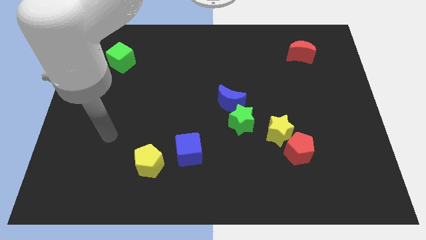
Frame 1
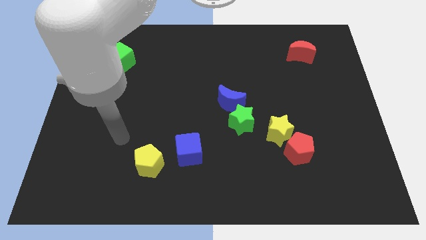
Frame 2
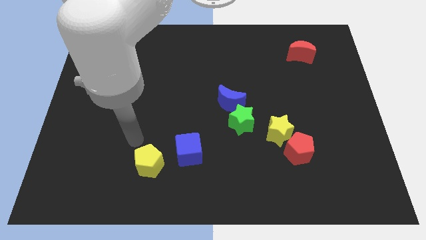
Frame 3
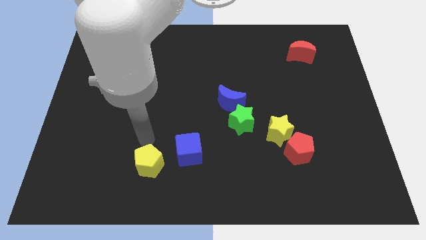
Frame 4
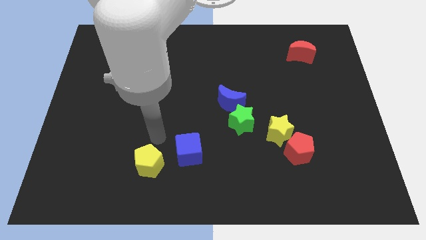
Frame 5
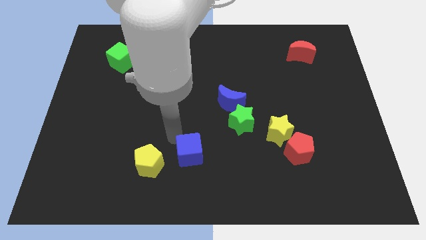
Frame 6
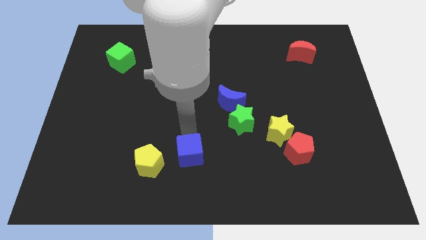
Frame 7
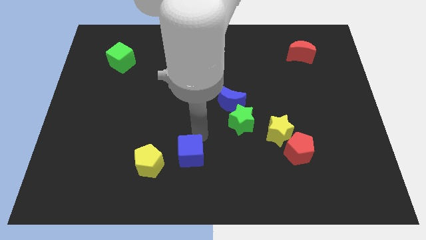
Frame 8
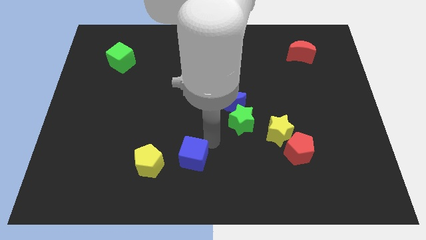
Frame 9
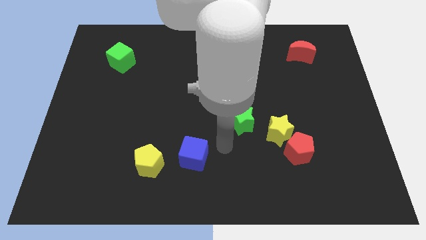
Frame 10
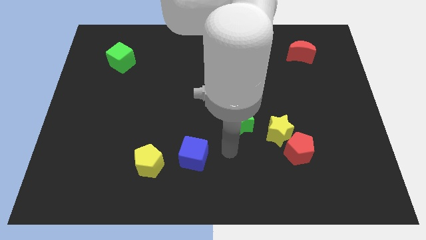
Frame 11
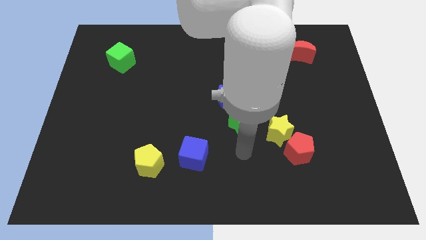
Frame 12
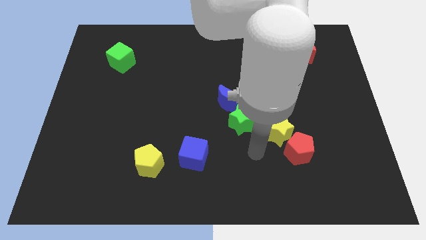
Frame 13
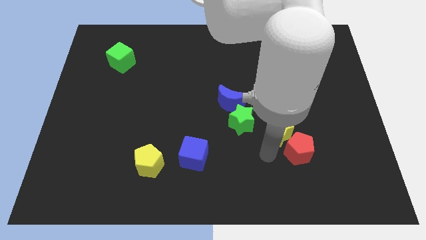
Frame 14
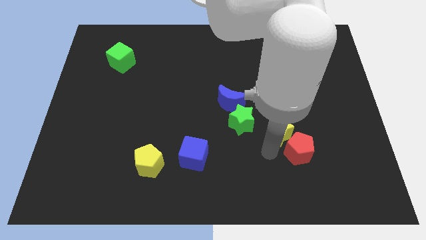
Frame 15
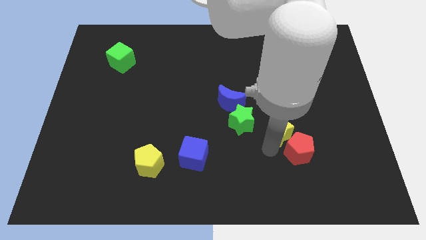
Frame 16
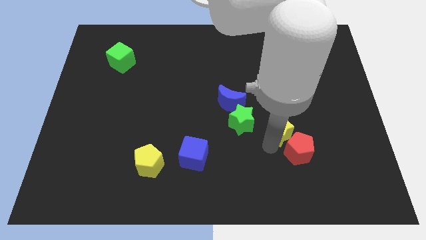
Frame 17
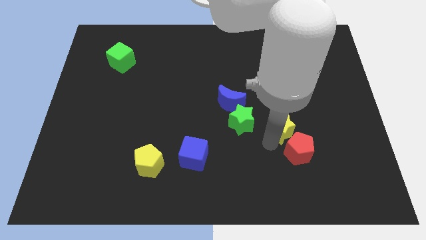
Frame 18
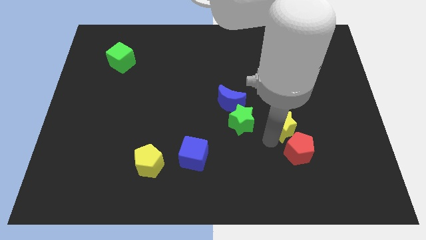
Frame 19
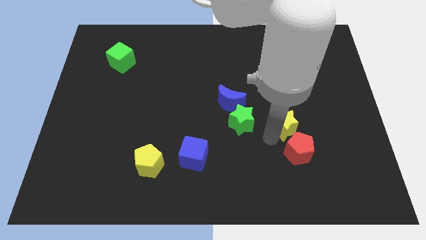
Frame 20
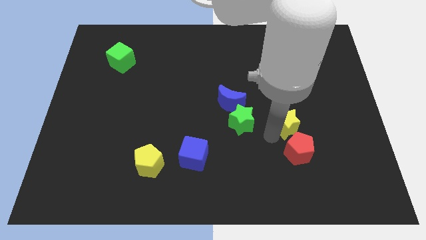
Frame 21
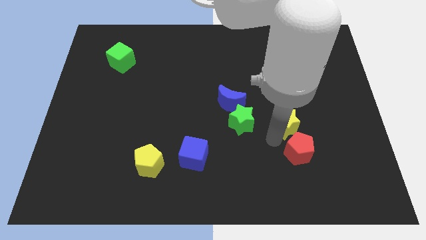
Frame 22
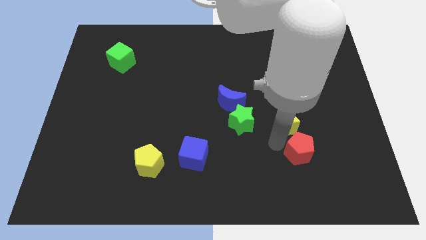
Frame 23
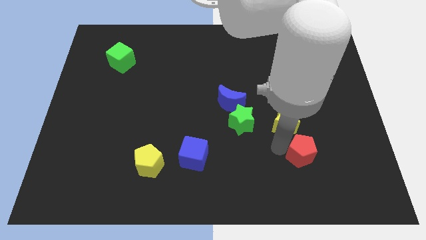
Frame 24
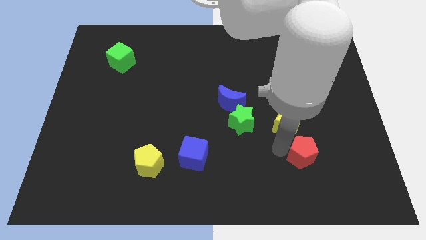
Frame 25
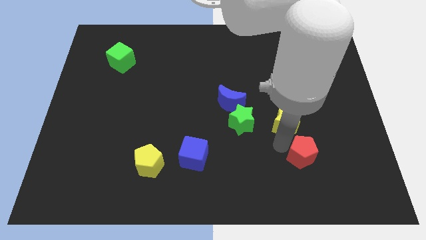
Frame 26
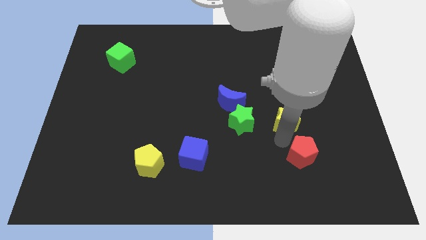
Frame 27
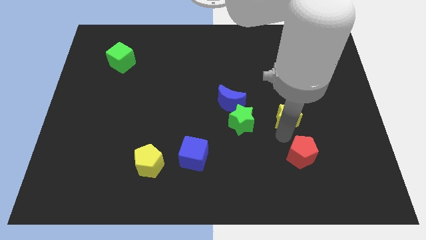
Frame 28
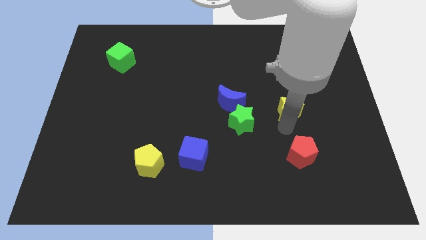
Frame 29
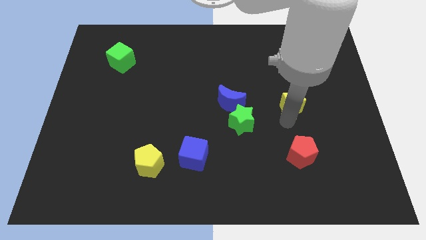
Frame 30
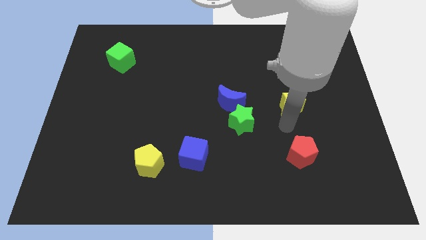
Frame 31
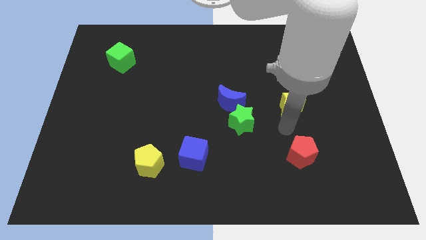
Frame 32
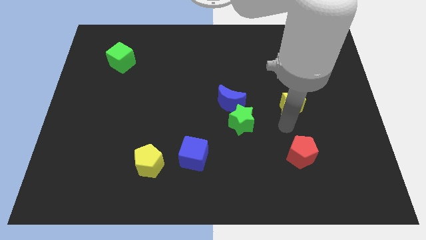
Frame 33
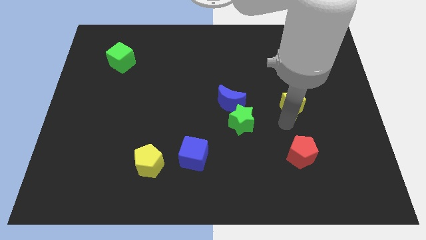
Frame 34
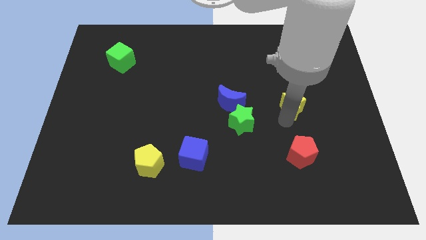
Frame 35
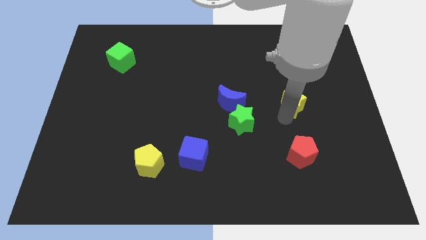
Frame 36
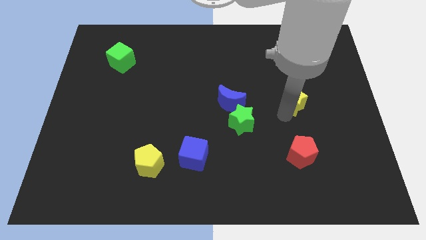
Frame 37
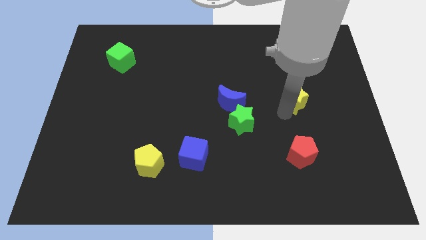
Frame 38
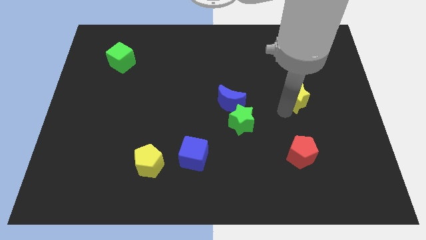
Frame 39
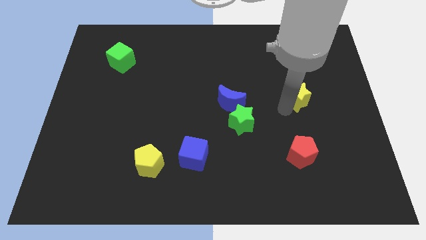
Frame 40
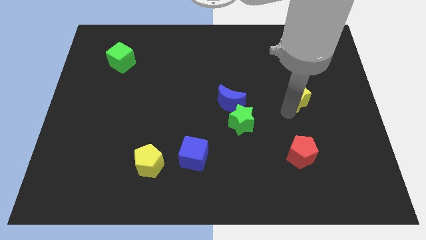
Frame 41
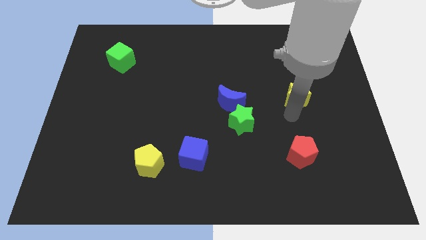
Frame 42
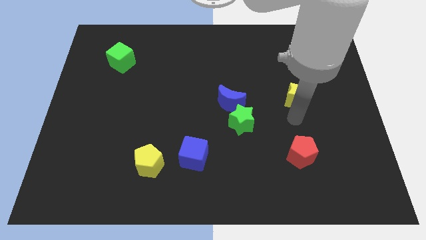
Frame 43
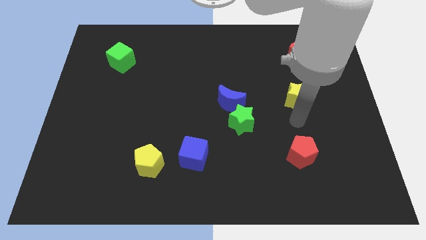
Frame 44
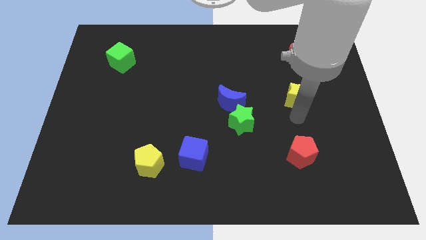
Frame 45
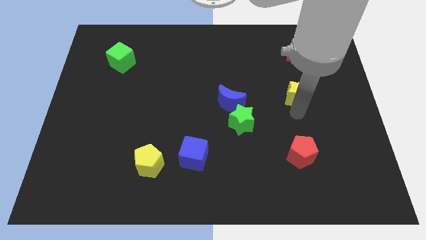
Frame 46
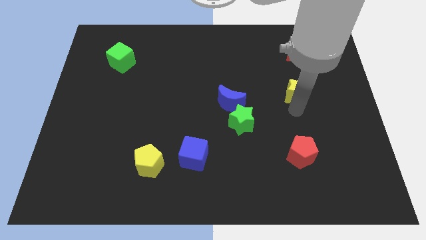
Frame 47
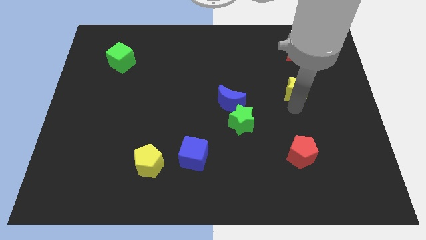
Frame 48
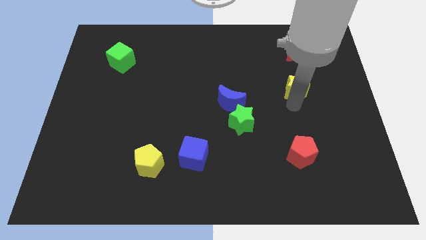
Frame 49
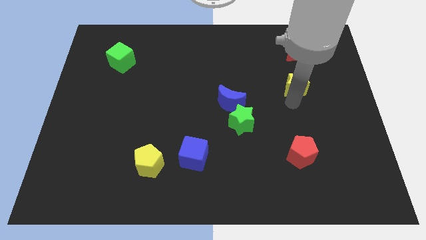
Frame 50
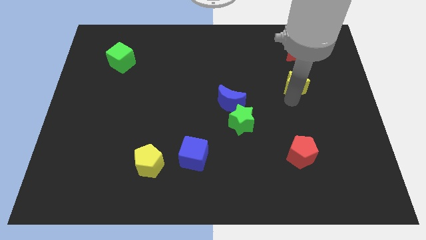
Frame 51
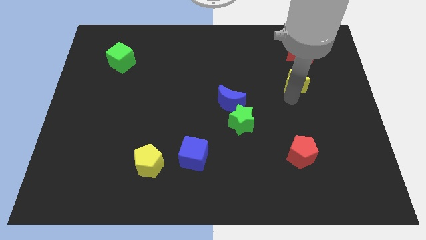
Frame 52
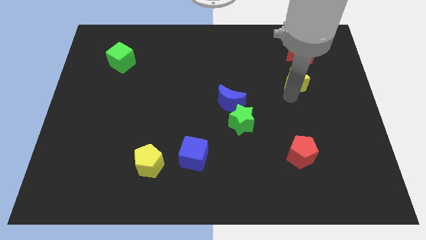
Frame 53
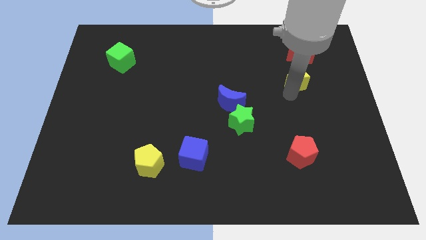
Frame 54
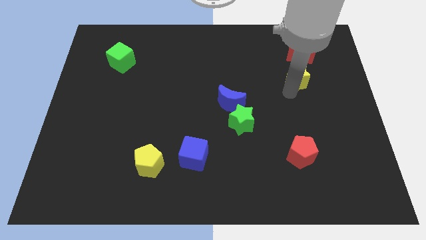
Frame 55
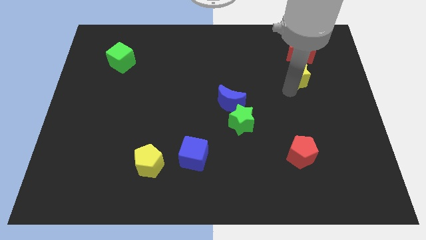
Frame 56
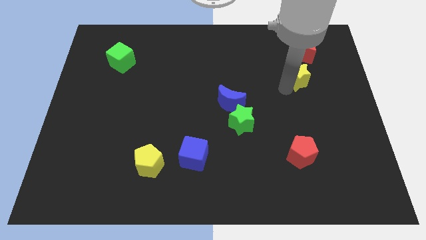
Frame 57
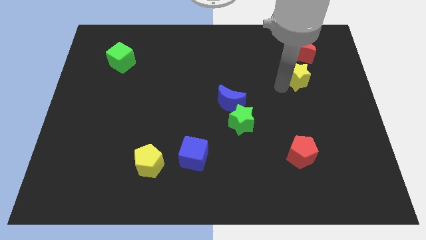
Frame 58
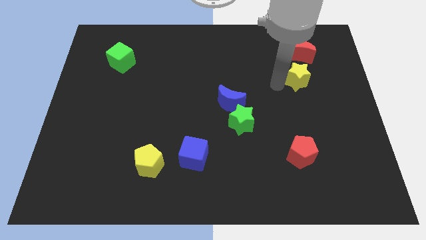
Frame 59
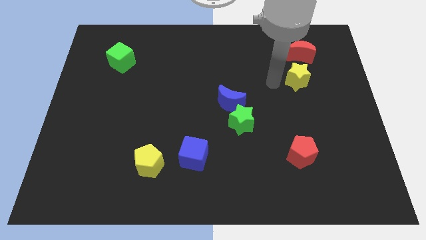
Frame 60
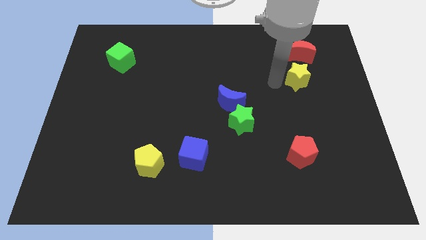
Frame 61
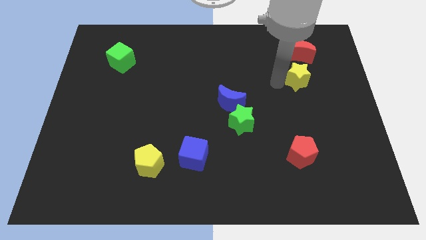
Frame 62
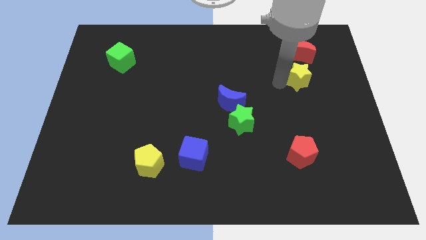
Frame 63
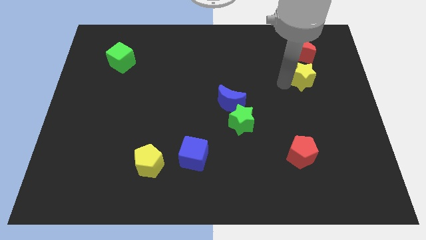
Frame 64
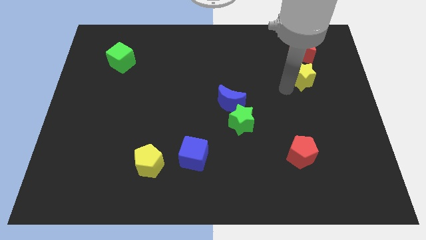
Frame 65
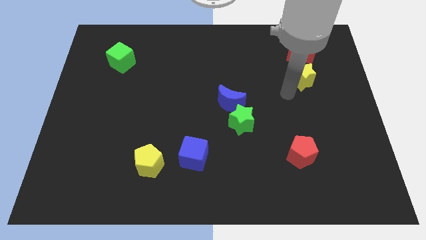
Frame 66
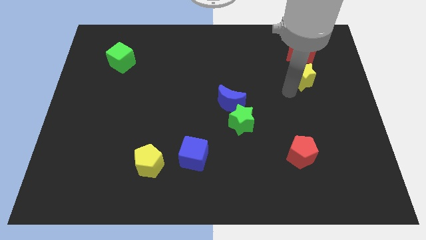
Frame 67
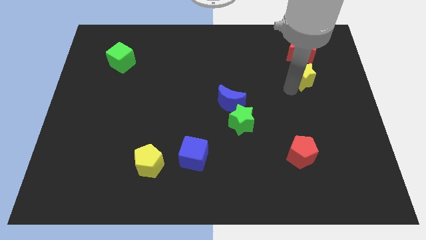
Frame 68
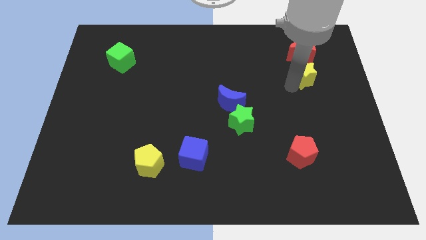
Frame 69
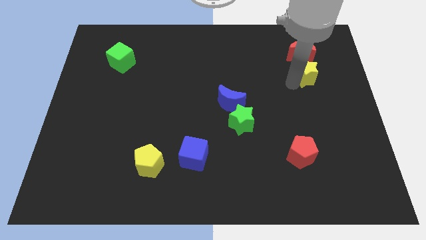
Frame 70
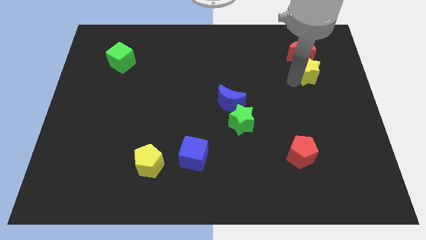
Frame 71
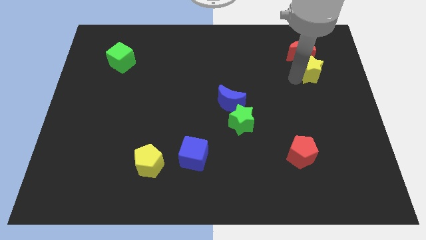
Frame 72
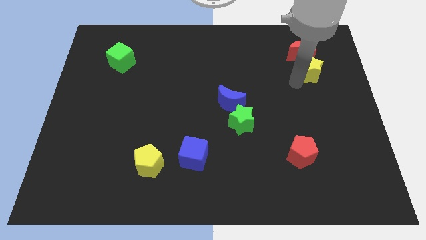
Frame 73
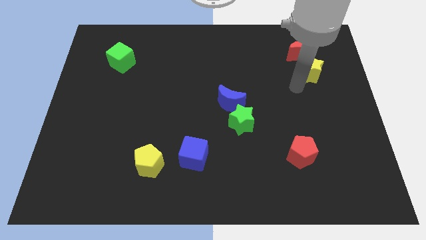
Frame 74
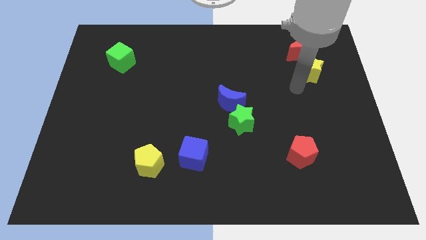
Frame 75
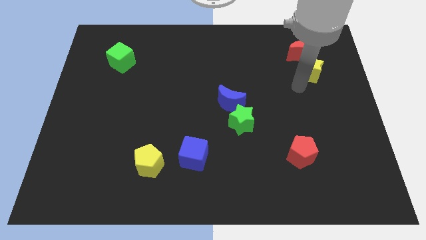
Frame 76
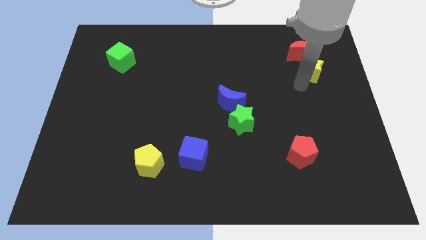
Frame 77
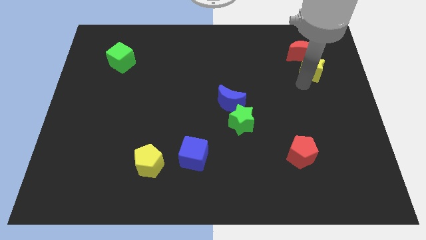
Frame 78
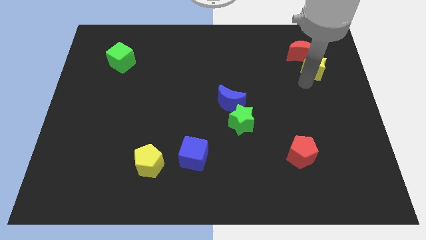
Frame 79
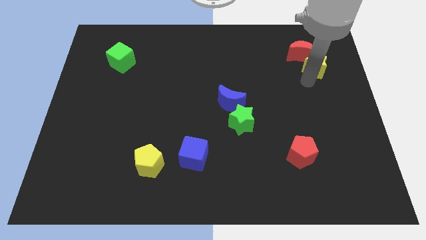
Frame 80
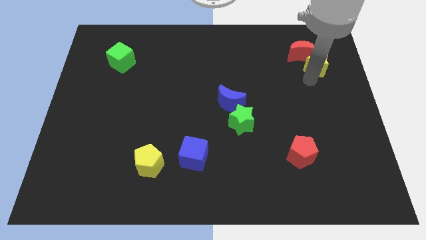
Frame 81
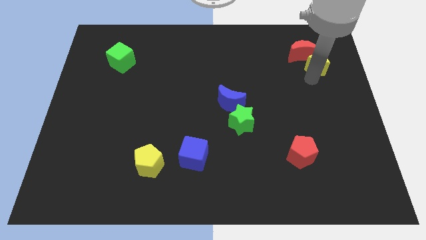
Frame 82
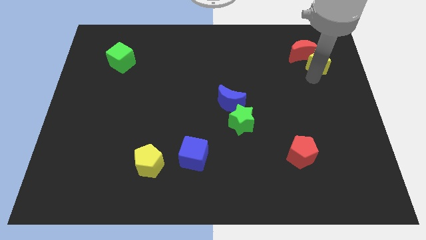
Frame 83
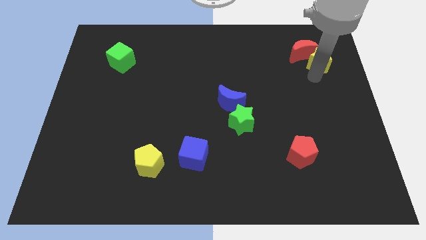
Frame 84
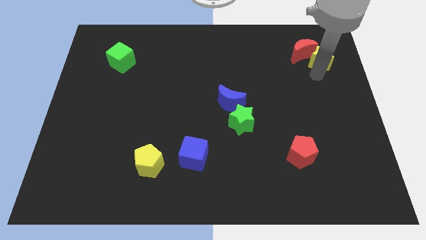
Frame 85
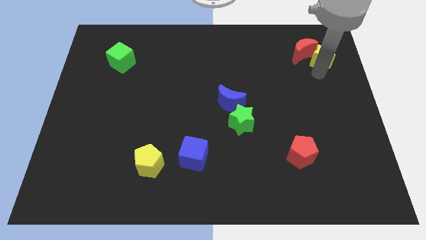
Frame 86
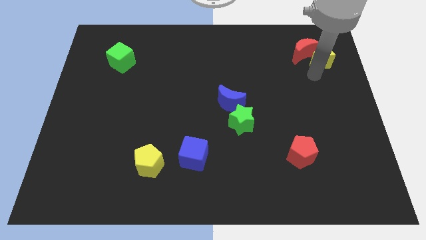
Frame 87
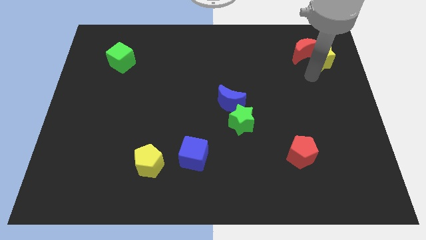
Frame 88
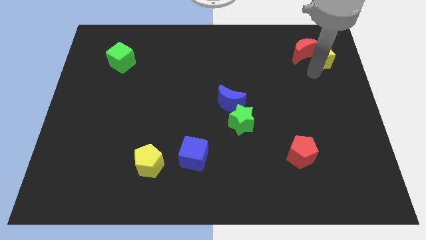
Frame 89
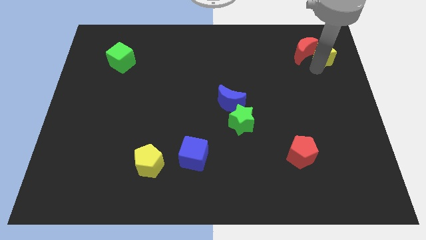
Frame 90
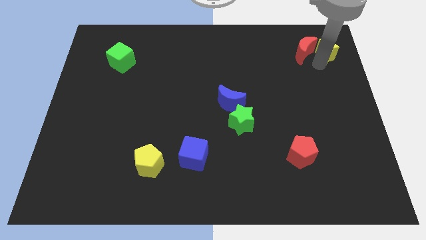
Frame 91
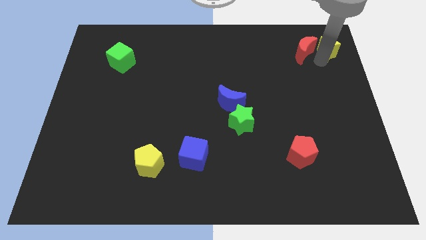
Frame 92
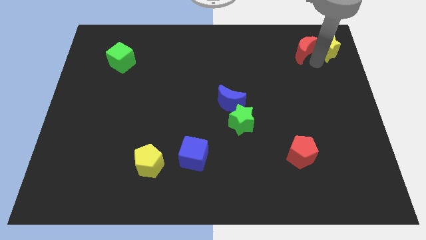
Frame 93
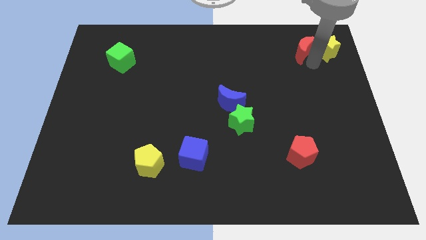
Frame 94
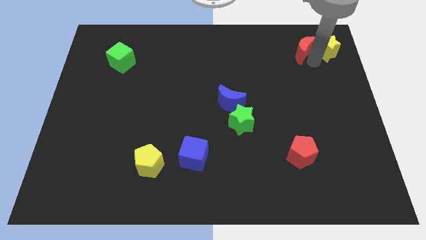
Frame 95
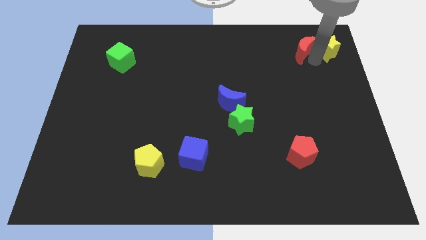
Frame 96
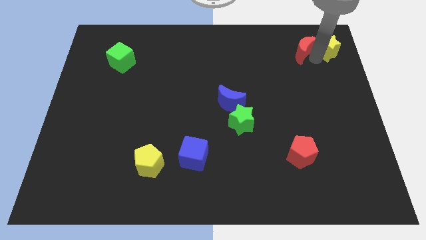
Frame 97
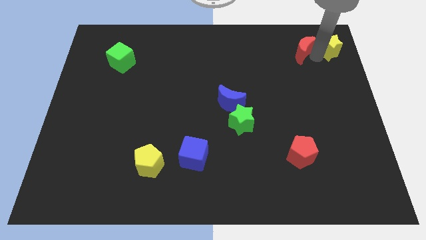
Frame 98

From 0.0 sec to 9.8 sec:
put the yellow star to the top right of the board
